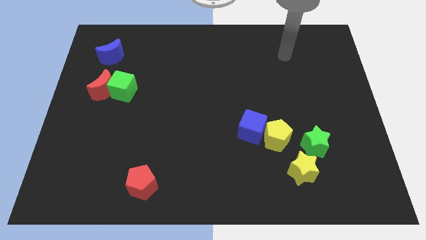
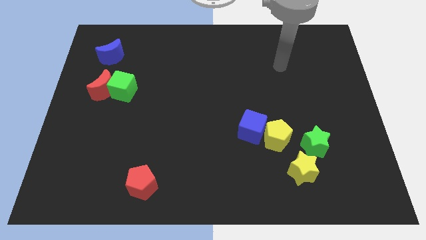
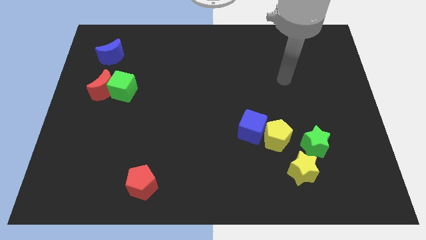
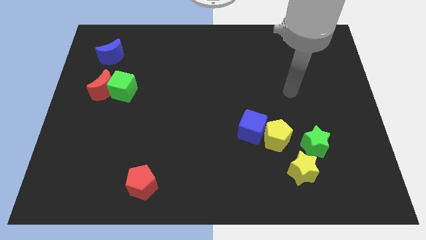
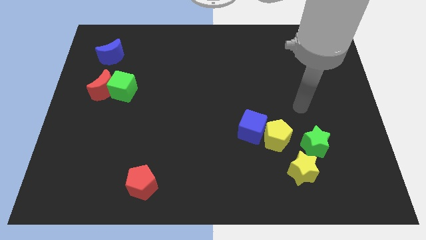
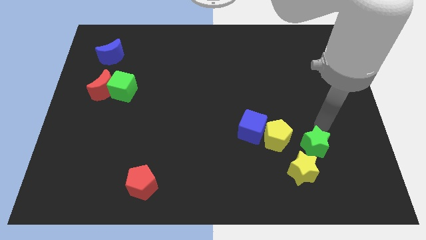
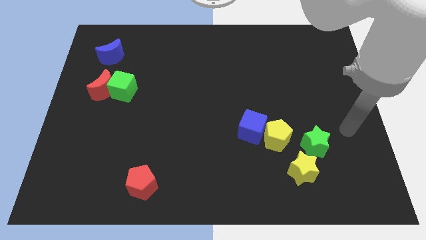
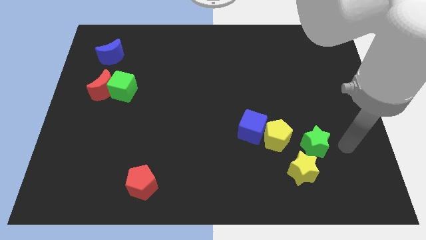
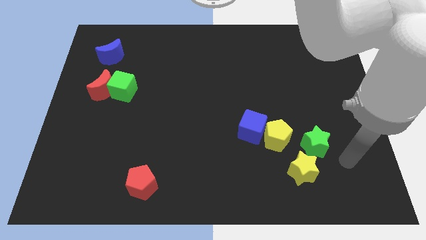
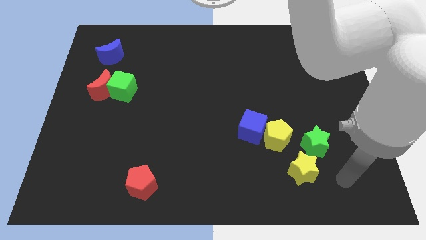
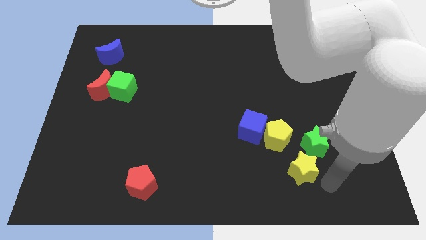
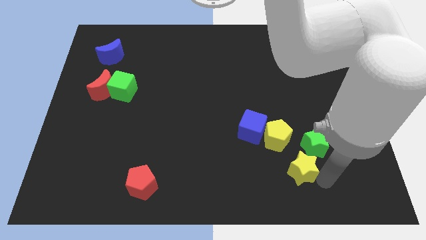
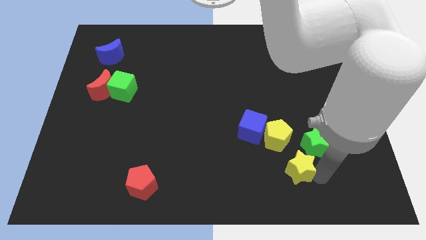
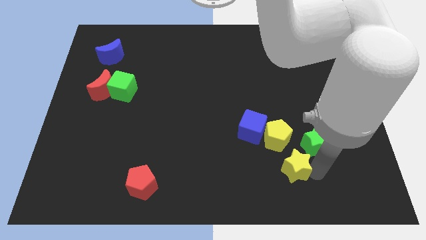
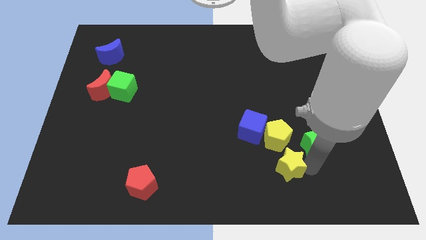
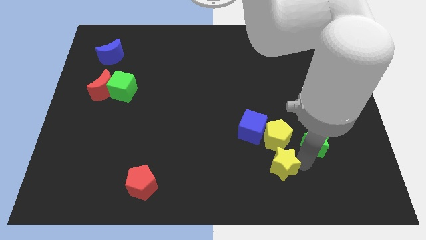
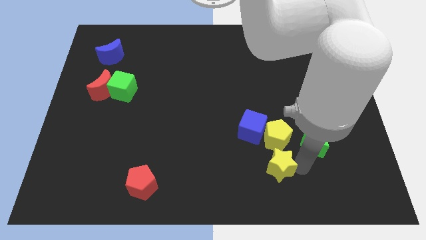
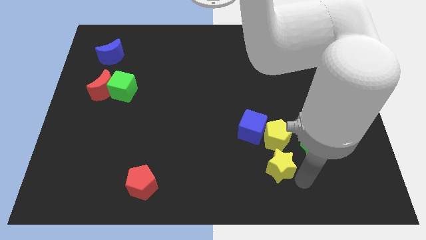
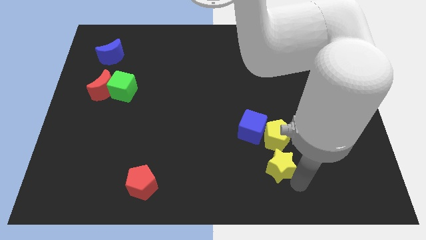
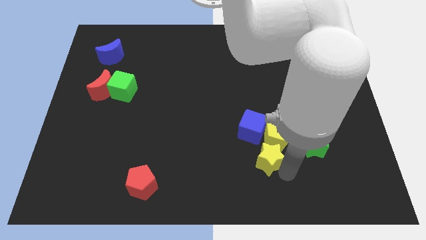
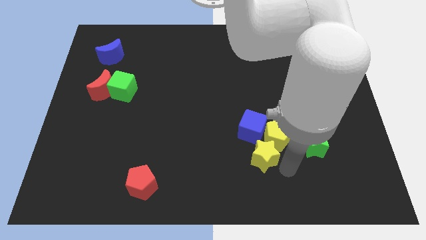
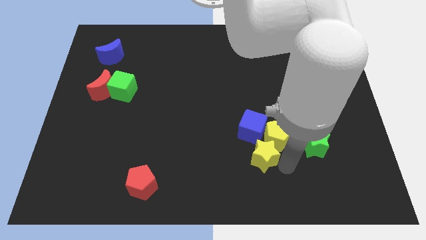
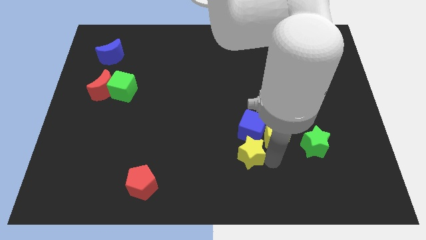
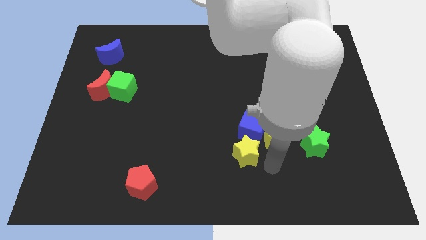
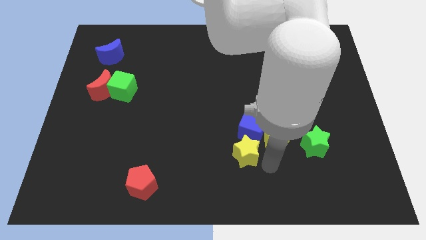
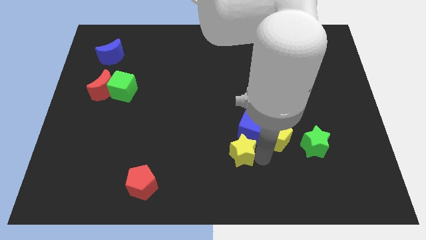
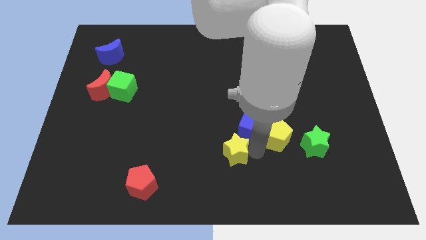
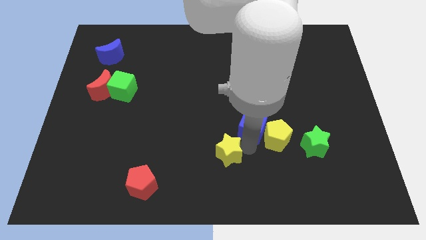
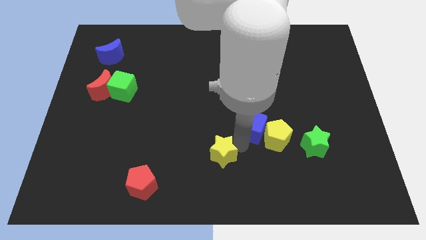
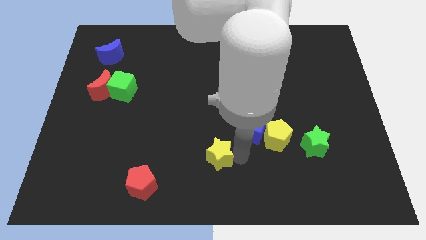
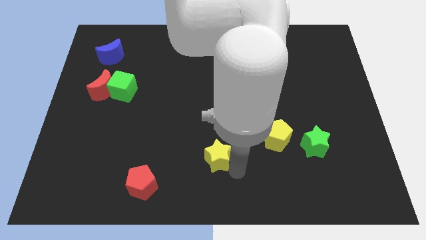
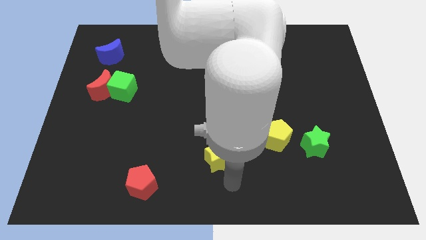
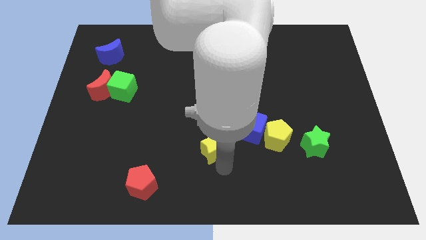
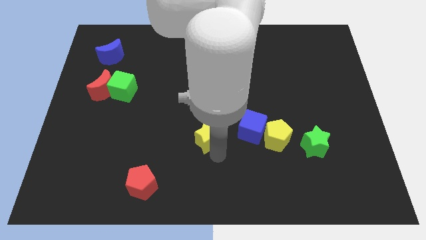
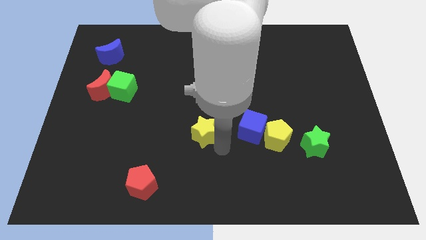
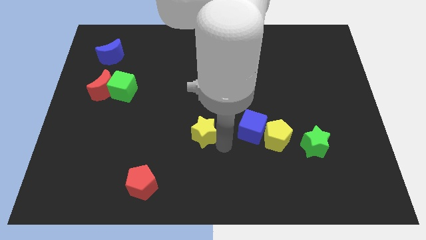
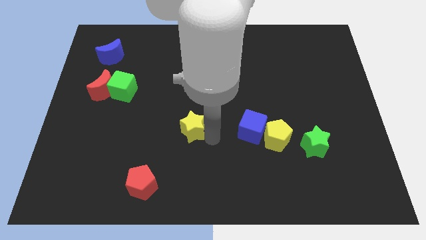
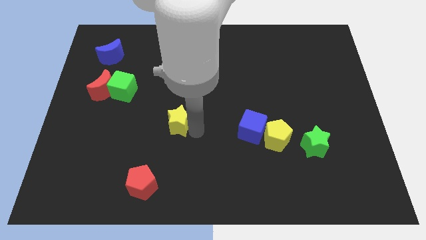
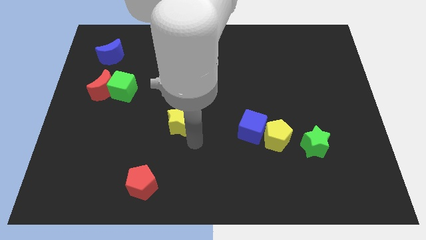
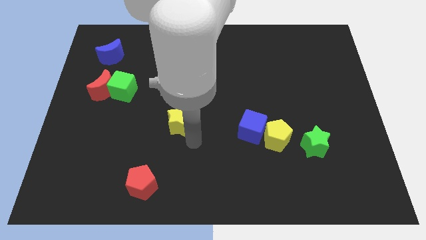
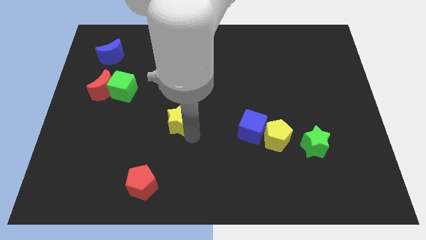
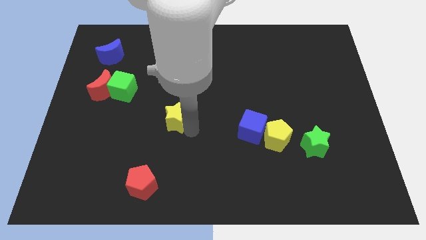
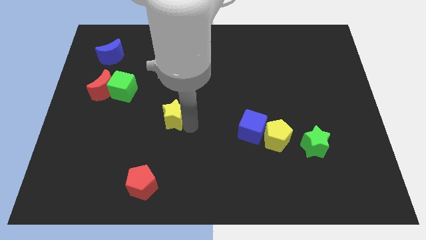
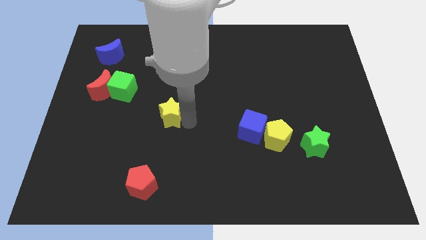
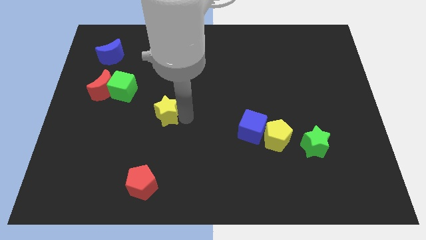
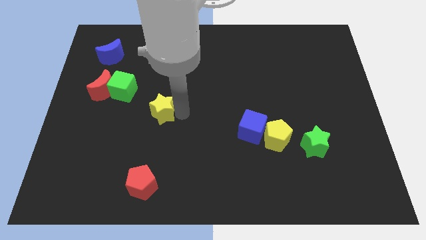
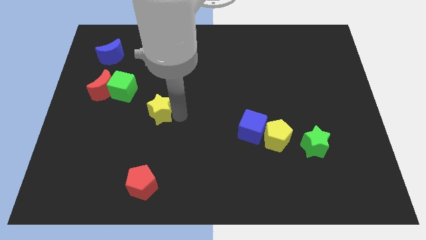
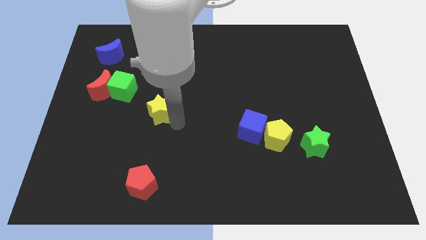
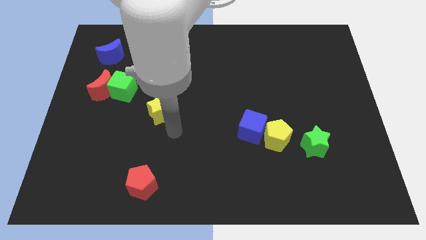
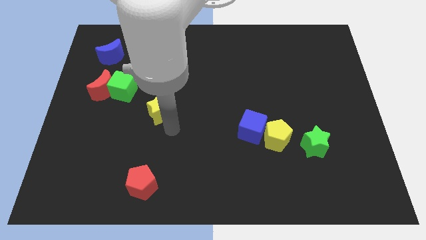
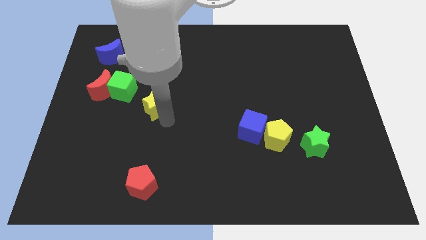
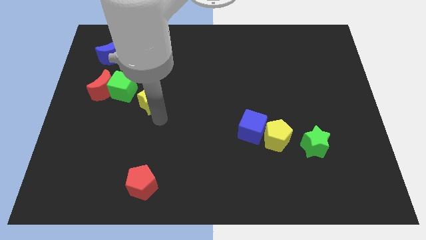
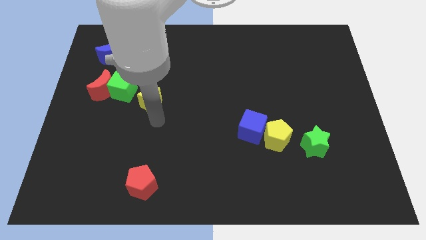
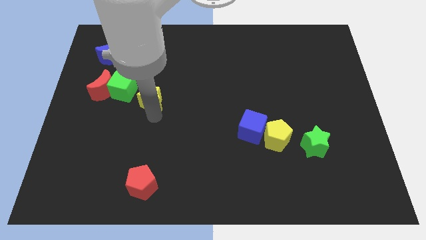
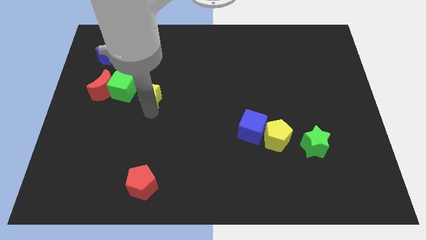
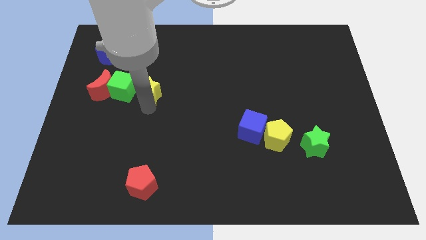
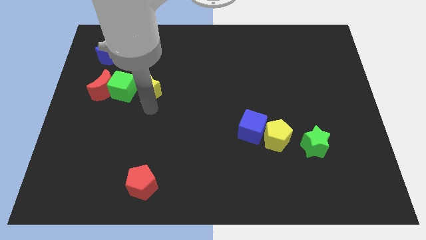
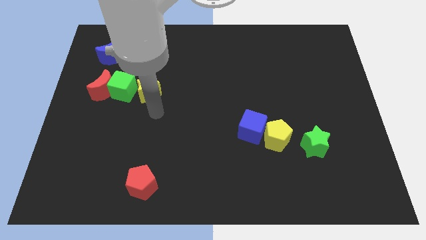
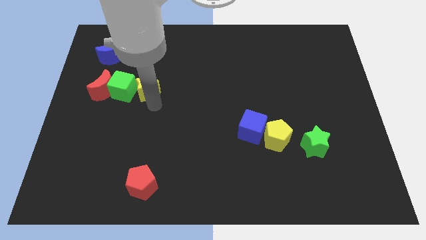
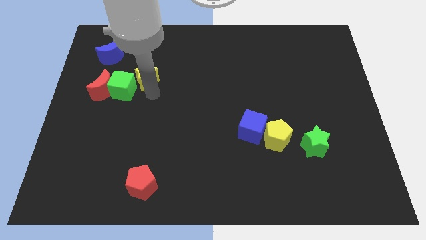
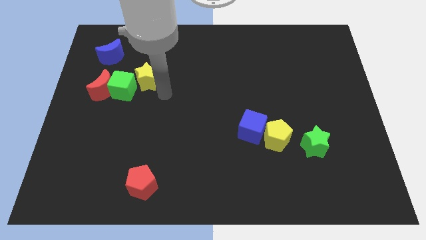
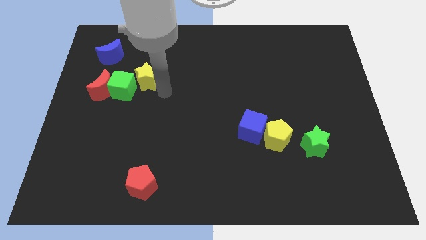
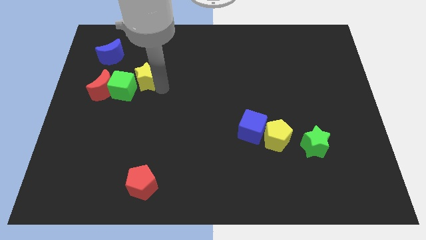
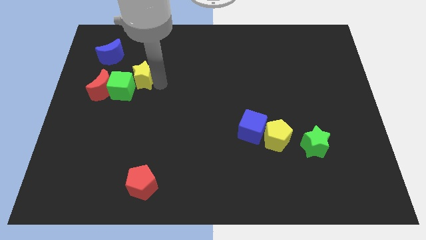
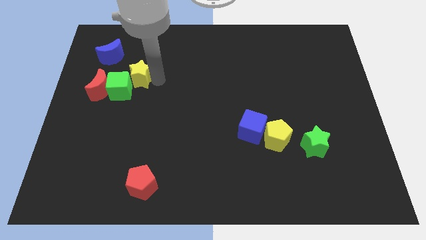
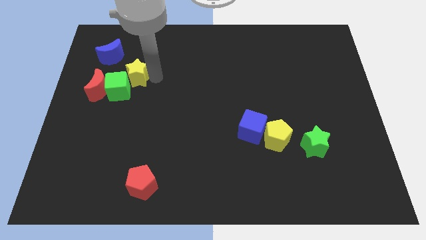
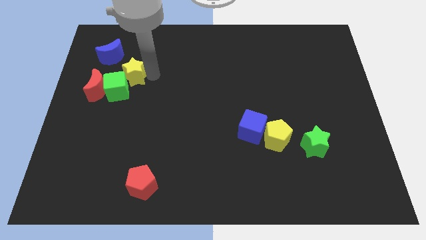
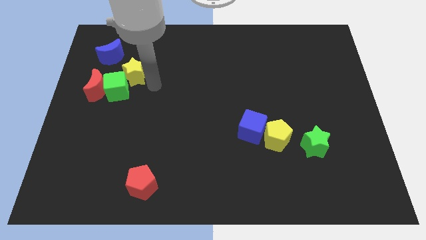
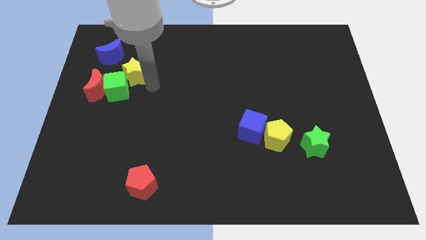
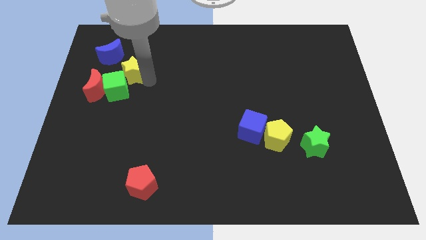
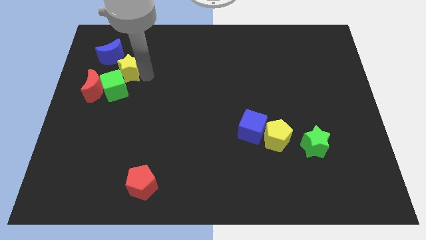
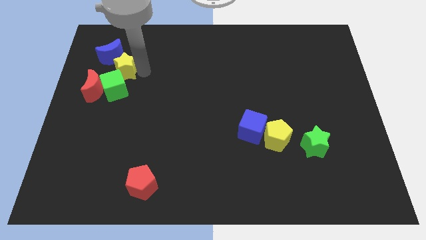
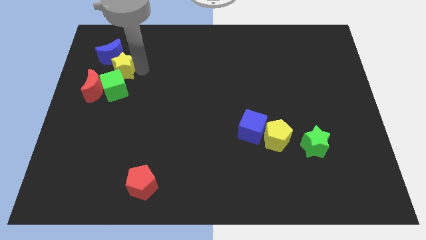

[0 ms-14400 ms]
put the yellow star to the blue moon
